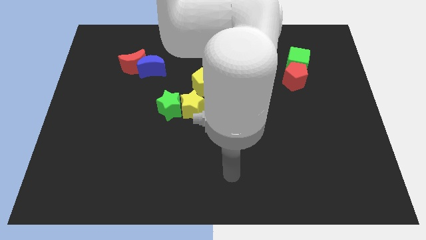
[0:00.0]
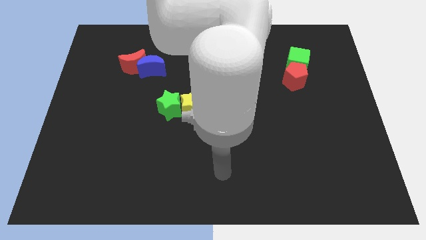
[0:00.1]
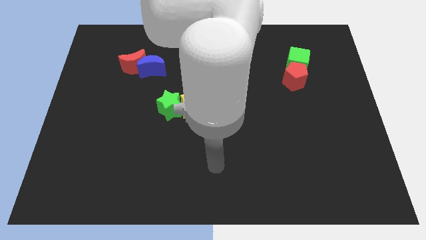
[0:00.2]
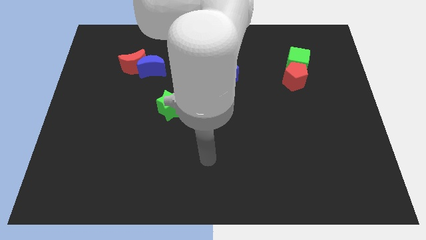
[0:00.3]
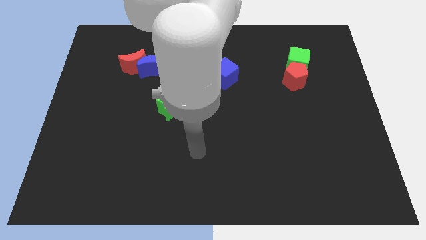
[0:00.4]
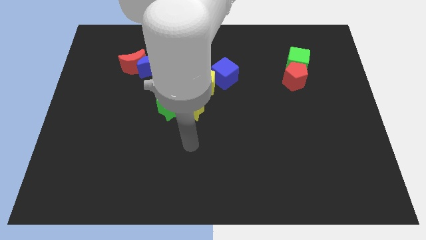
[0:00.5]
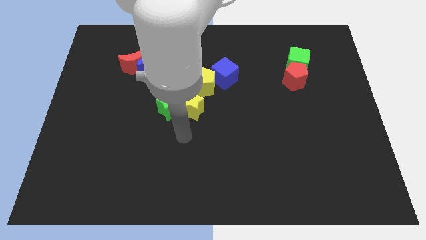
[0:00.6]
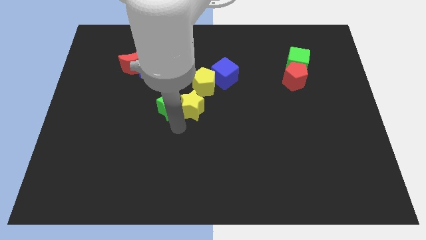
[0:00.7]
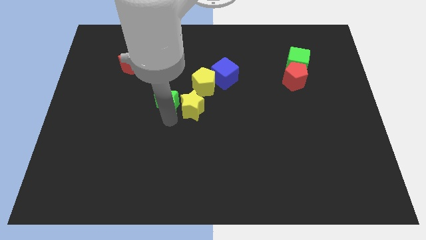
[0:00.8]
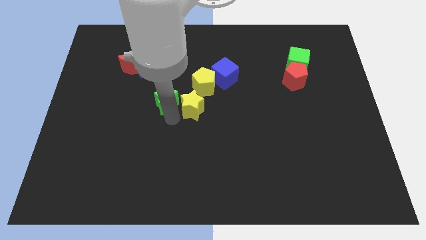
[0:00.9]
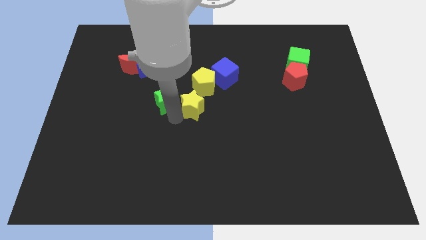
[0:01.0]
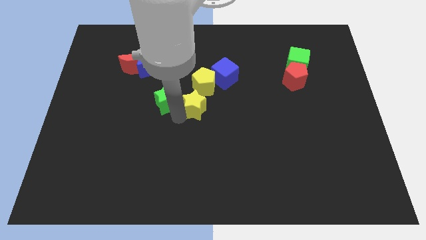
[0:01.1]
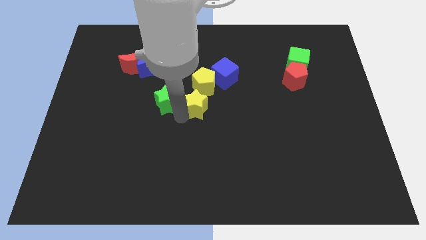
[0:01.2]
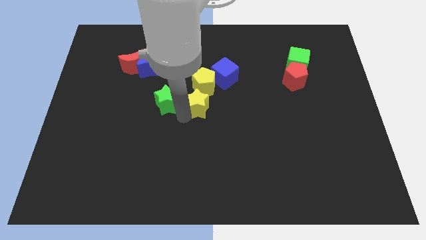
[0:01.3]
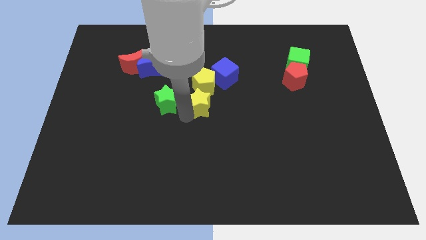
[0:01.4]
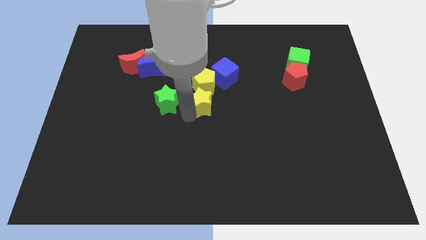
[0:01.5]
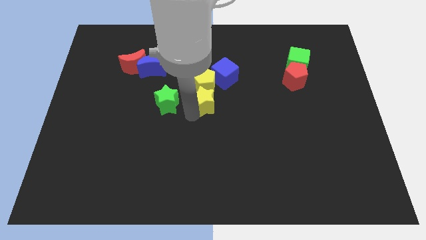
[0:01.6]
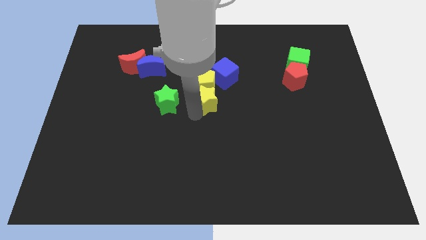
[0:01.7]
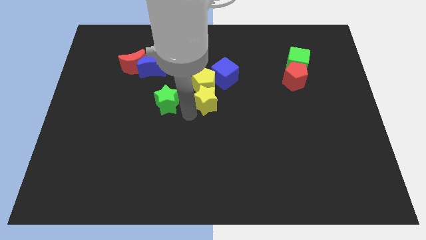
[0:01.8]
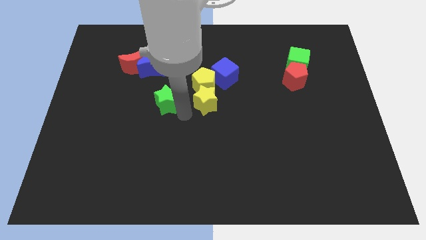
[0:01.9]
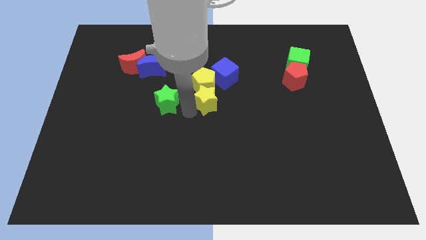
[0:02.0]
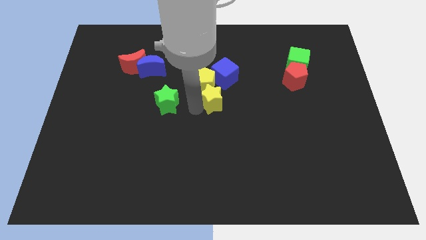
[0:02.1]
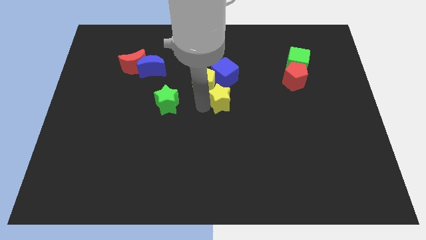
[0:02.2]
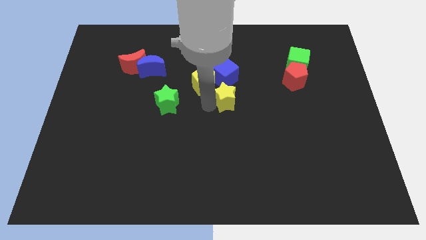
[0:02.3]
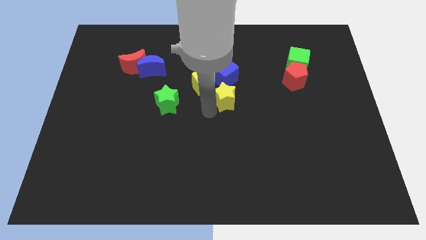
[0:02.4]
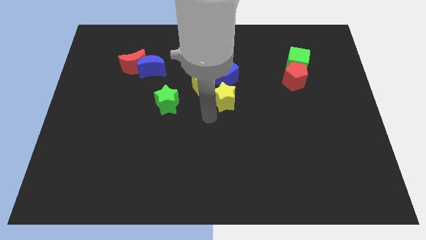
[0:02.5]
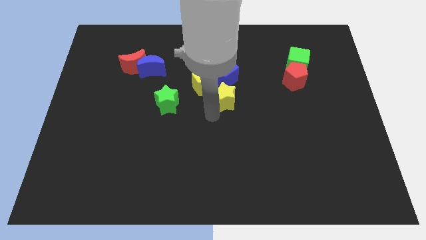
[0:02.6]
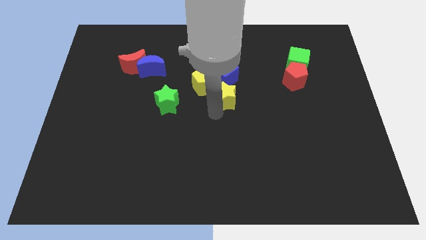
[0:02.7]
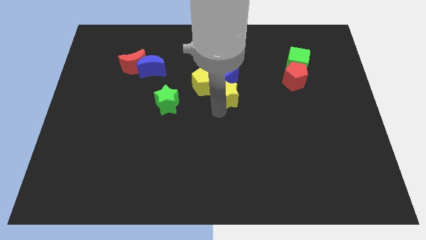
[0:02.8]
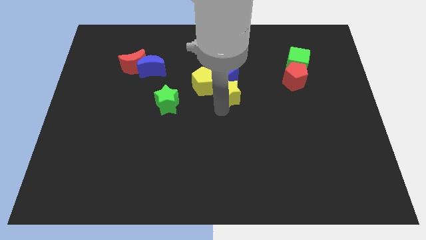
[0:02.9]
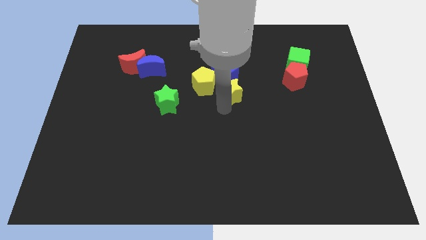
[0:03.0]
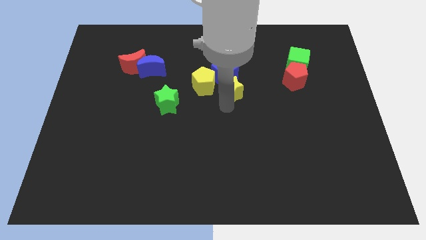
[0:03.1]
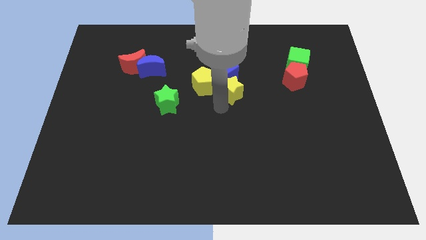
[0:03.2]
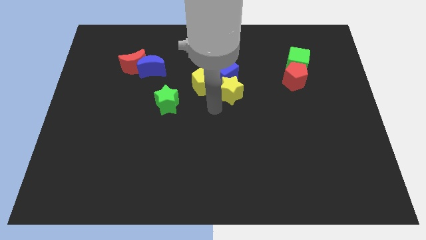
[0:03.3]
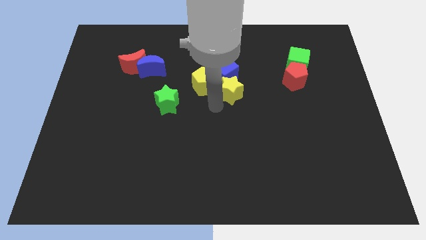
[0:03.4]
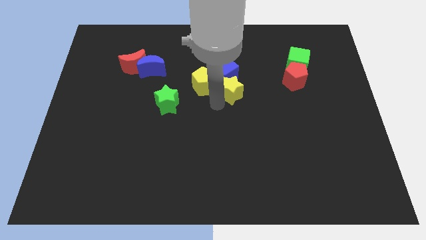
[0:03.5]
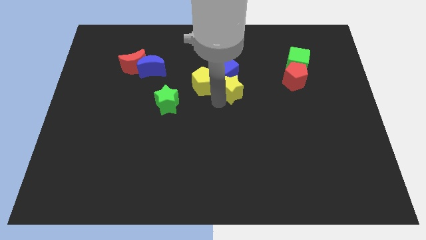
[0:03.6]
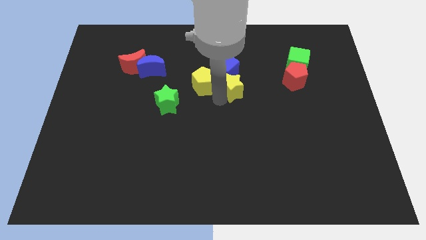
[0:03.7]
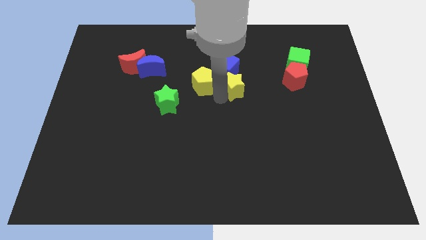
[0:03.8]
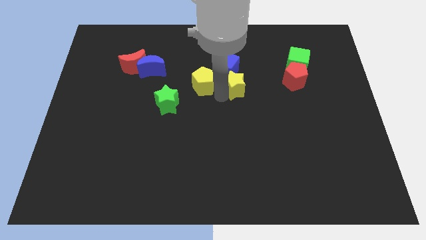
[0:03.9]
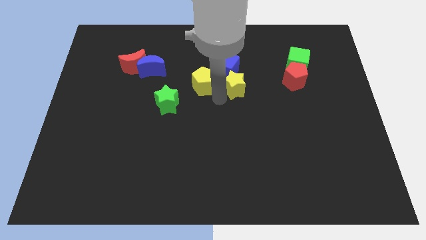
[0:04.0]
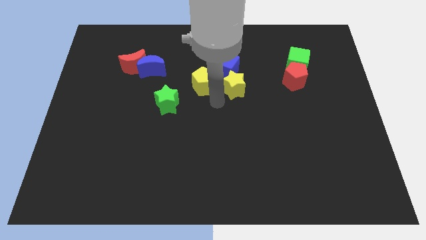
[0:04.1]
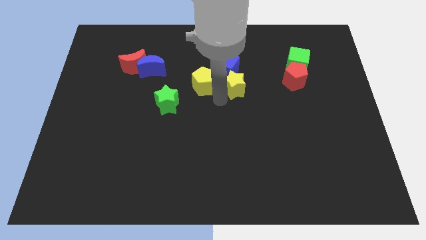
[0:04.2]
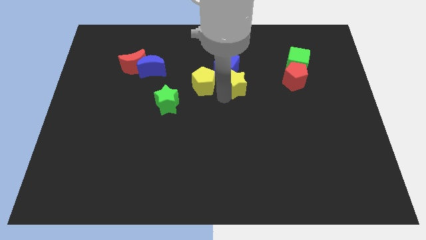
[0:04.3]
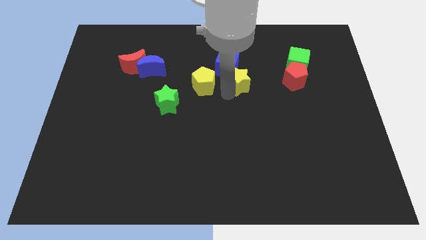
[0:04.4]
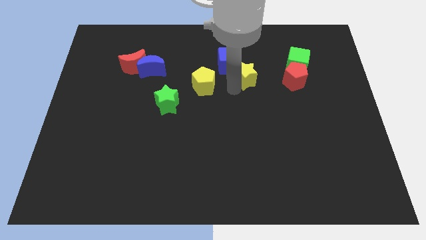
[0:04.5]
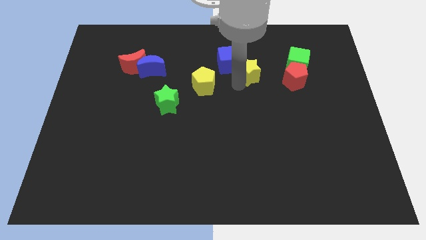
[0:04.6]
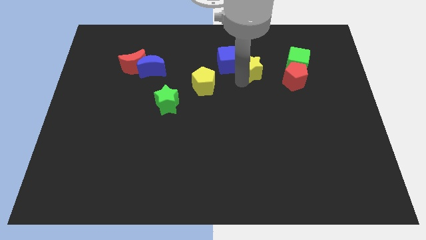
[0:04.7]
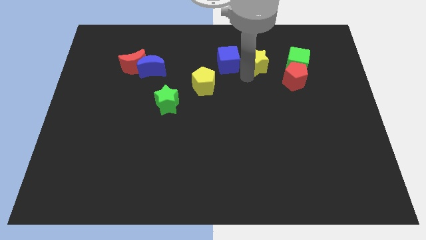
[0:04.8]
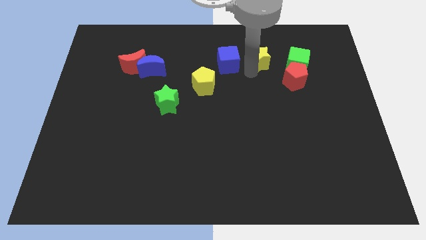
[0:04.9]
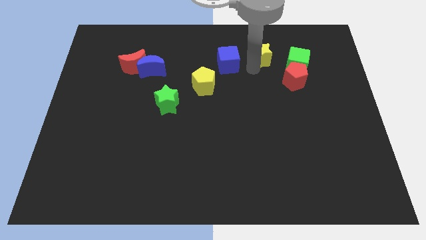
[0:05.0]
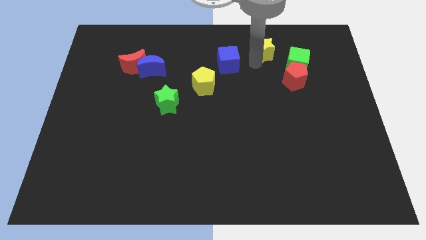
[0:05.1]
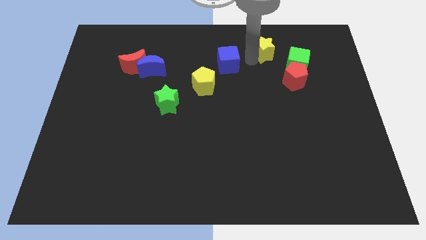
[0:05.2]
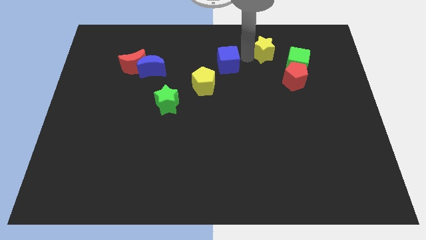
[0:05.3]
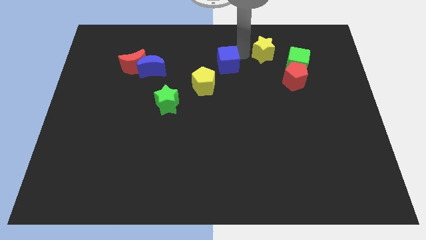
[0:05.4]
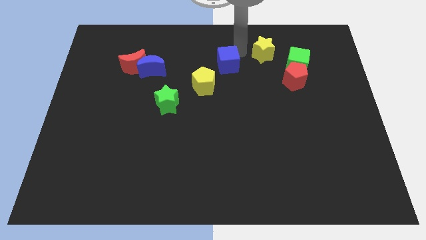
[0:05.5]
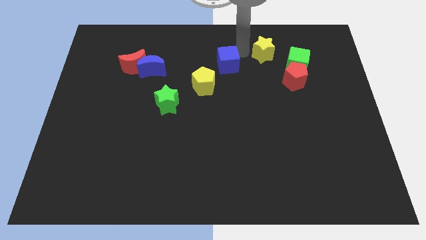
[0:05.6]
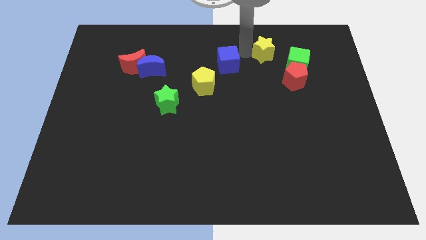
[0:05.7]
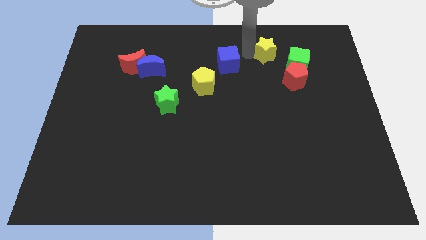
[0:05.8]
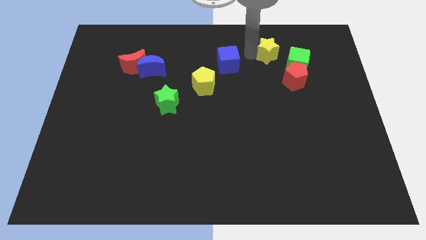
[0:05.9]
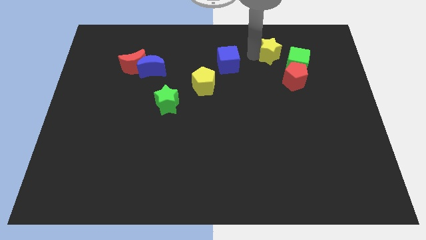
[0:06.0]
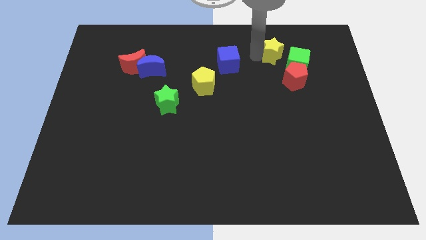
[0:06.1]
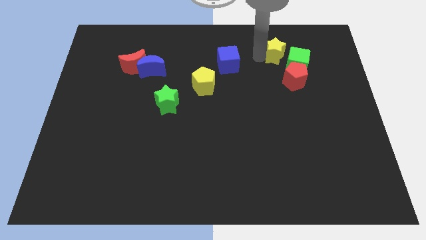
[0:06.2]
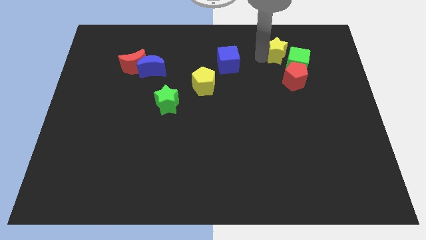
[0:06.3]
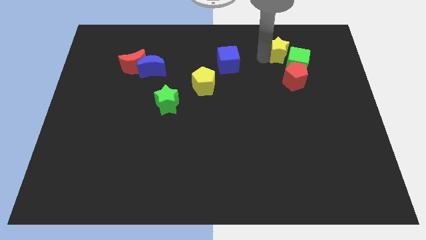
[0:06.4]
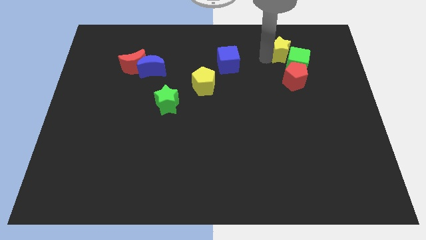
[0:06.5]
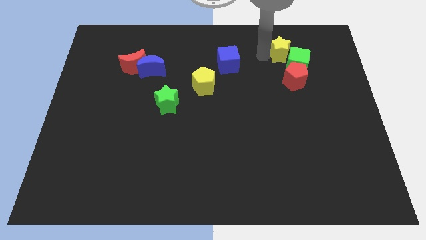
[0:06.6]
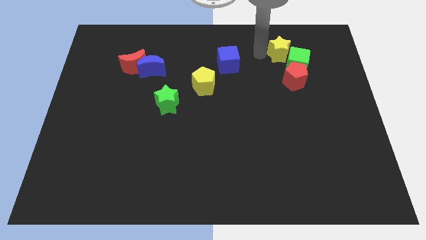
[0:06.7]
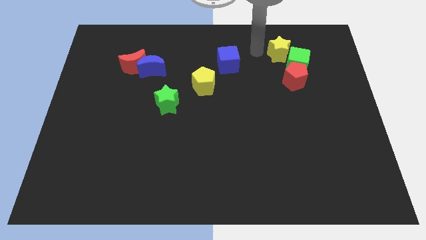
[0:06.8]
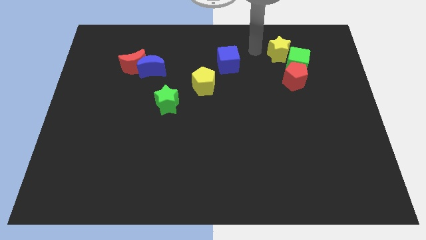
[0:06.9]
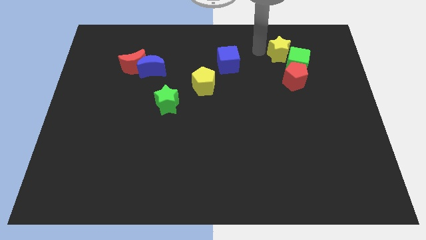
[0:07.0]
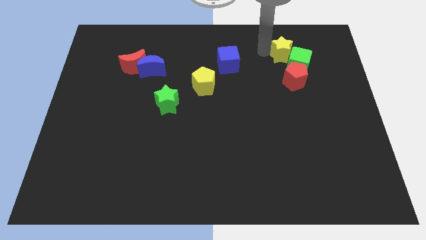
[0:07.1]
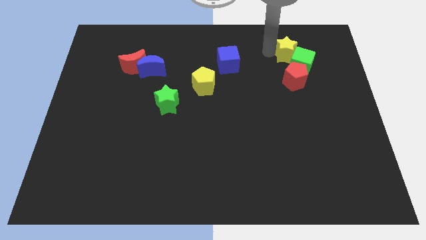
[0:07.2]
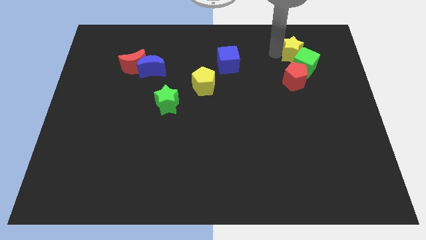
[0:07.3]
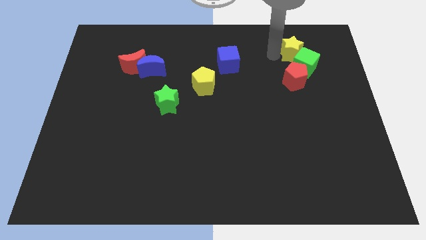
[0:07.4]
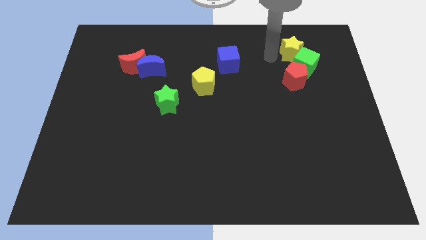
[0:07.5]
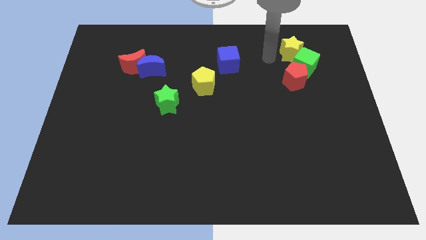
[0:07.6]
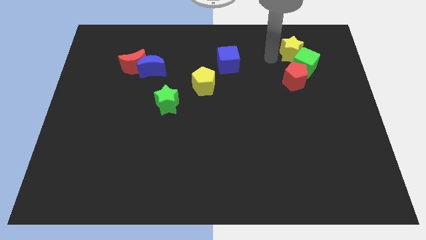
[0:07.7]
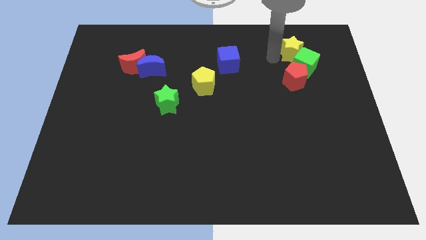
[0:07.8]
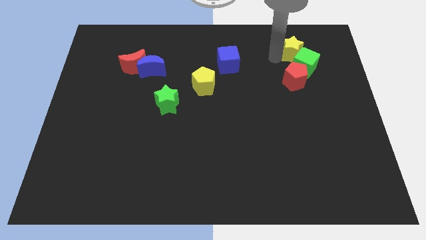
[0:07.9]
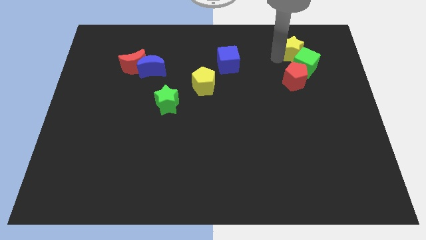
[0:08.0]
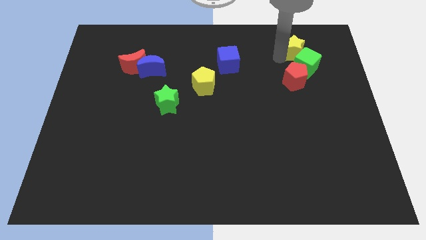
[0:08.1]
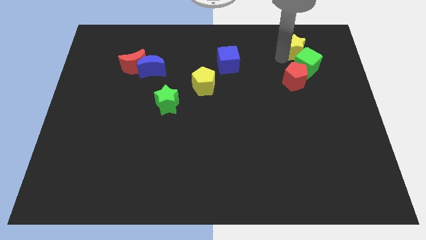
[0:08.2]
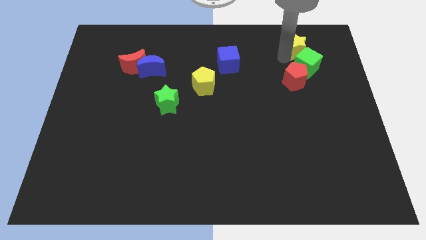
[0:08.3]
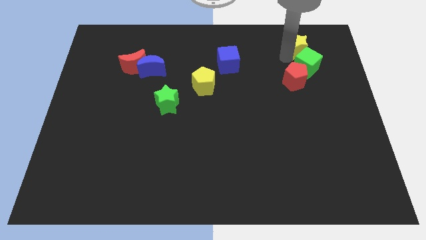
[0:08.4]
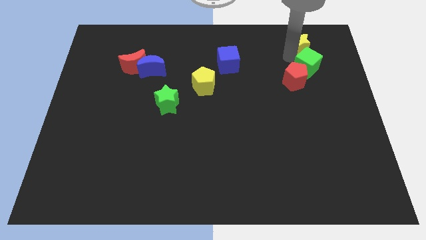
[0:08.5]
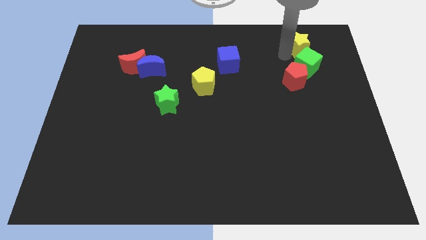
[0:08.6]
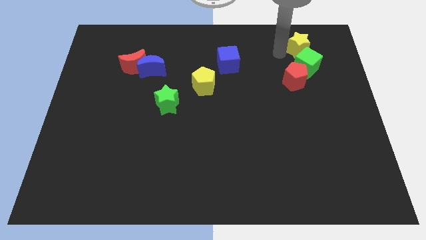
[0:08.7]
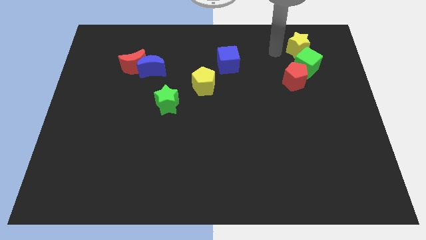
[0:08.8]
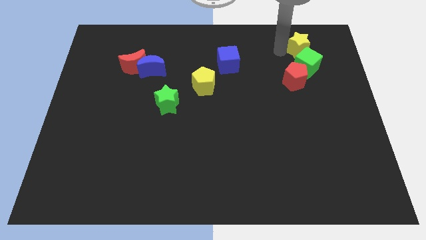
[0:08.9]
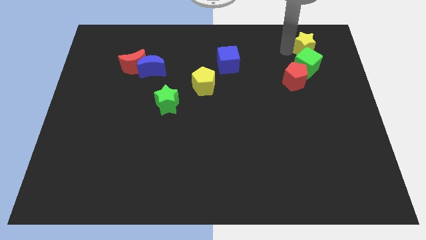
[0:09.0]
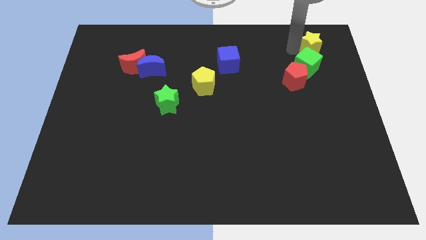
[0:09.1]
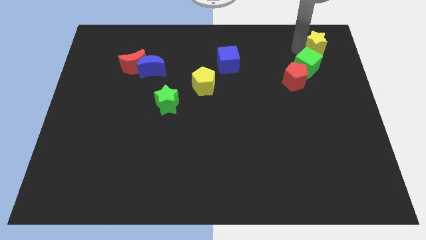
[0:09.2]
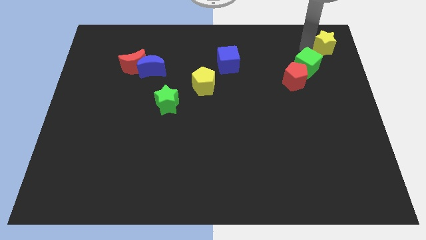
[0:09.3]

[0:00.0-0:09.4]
push the yellow star to the top right of the board
